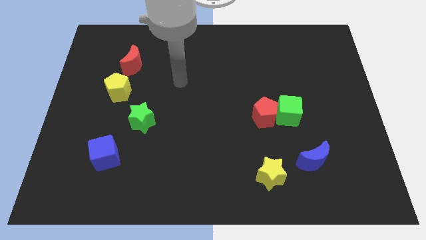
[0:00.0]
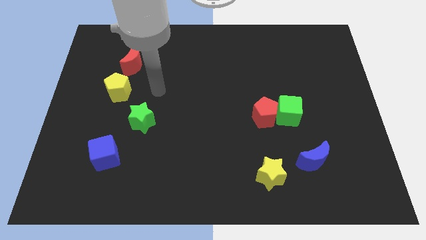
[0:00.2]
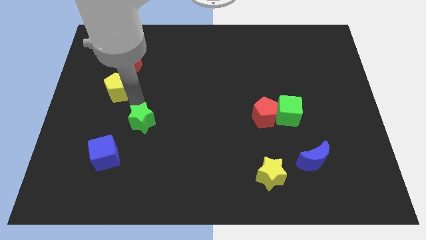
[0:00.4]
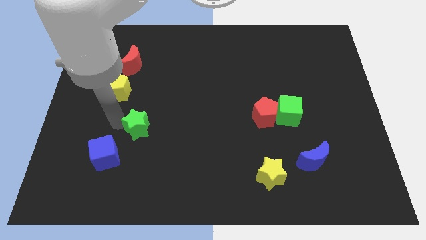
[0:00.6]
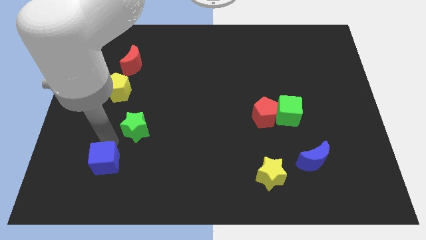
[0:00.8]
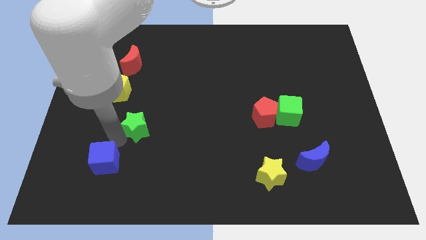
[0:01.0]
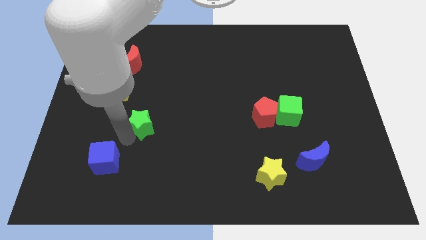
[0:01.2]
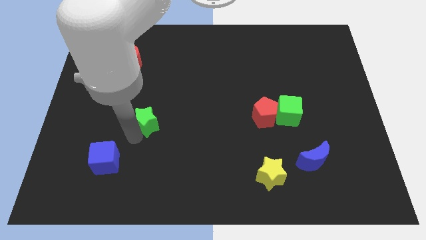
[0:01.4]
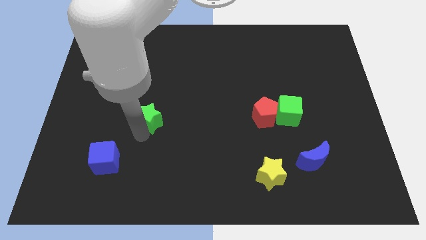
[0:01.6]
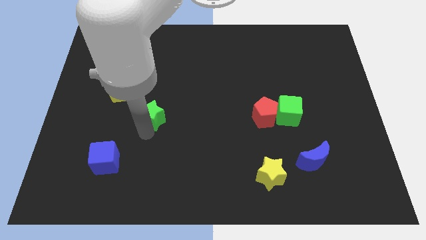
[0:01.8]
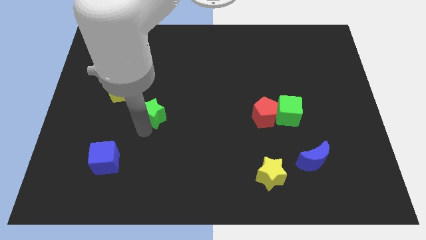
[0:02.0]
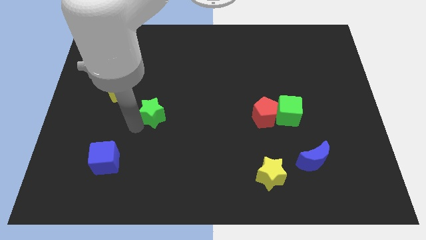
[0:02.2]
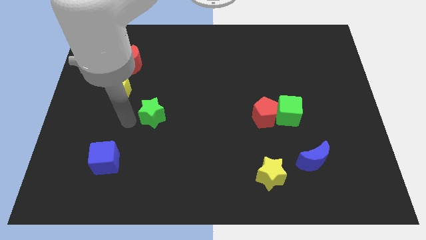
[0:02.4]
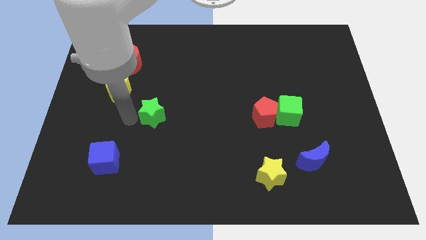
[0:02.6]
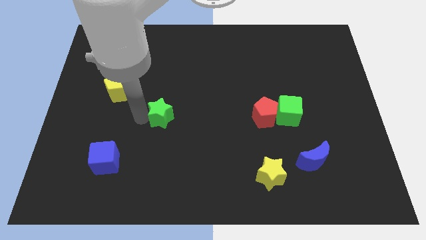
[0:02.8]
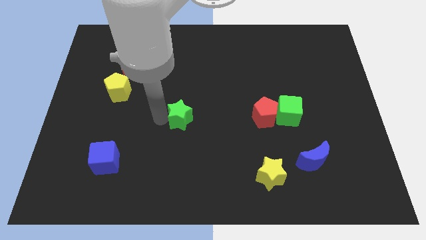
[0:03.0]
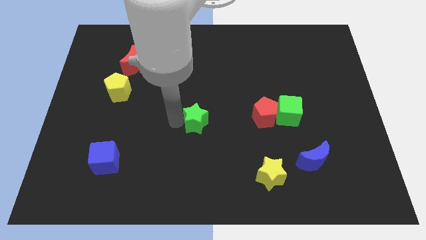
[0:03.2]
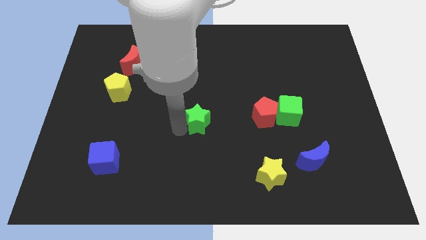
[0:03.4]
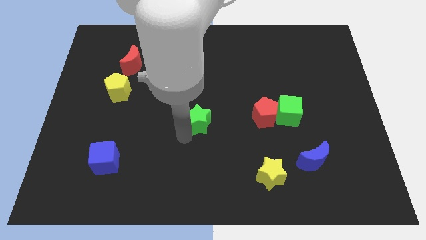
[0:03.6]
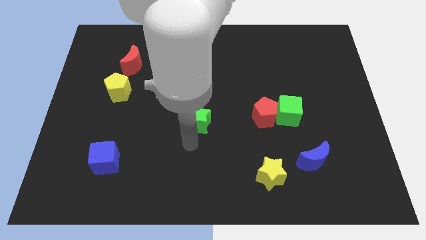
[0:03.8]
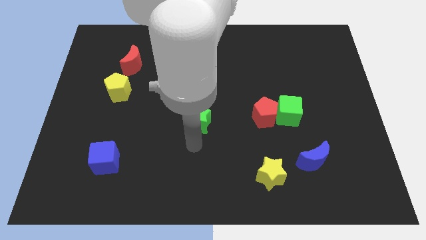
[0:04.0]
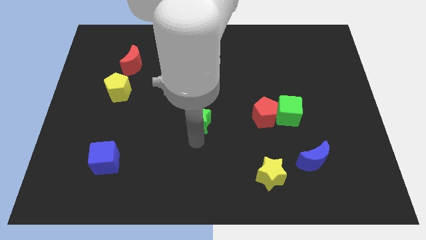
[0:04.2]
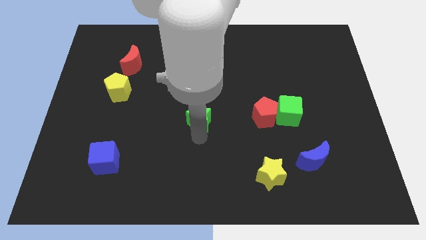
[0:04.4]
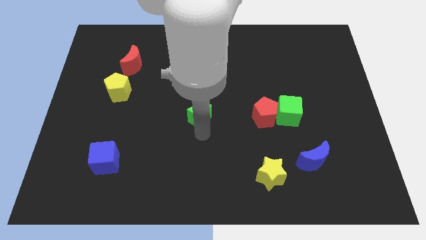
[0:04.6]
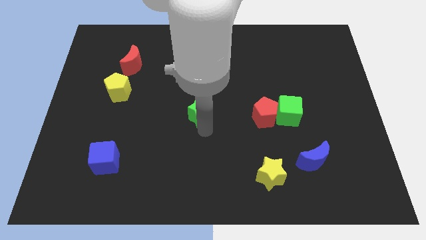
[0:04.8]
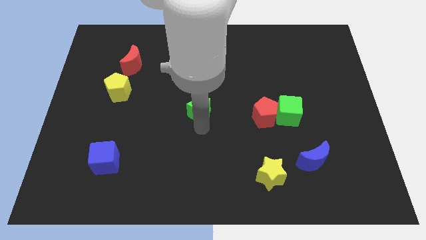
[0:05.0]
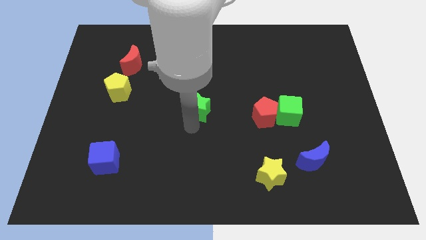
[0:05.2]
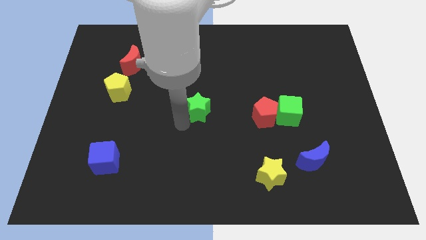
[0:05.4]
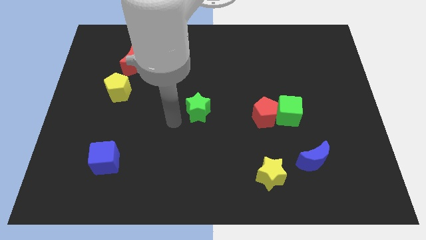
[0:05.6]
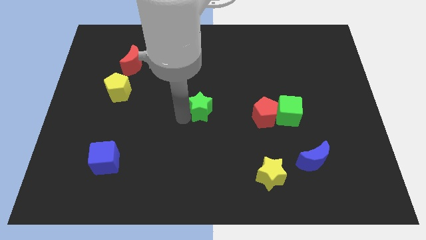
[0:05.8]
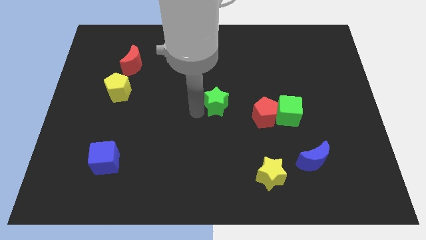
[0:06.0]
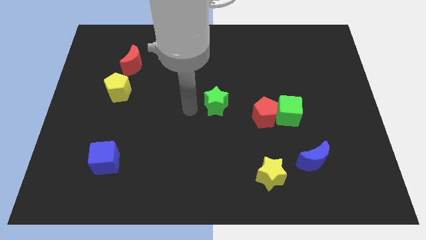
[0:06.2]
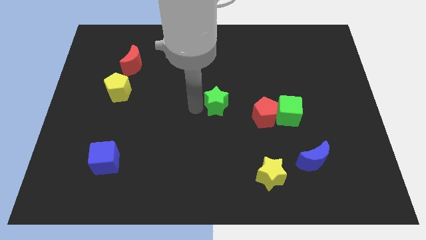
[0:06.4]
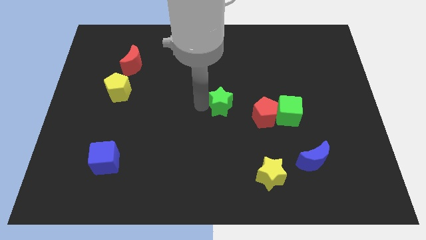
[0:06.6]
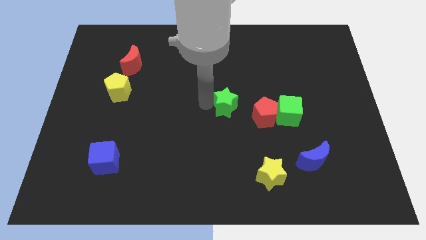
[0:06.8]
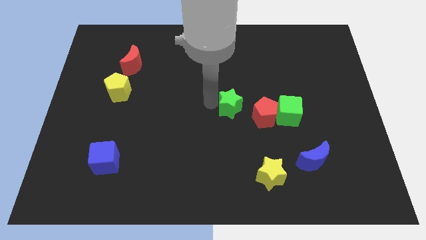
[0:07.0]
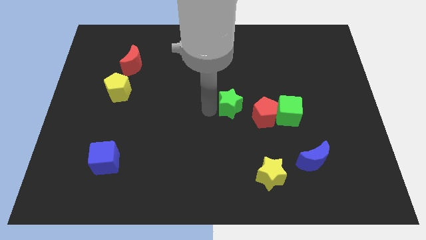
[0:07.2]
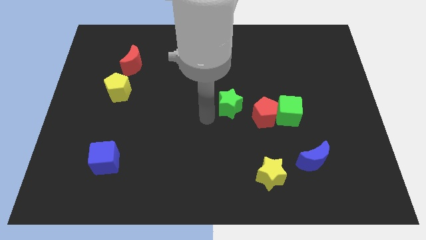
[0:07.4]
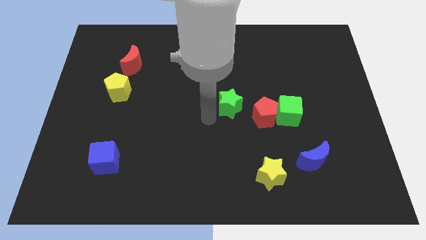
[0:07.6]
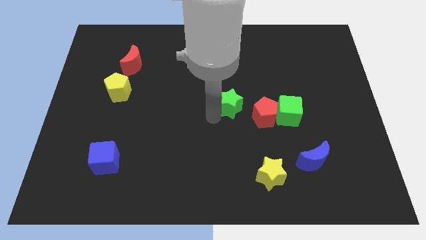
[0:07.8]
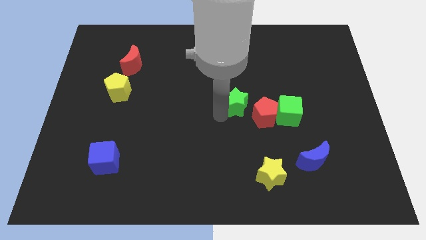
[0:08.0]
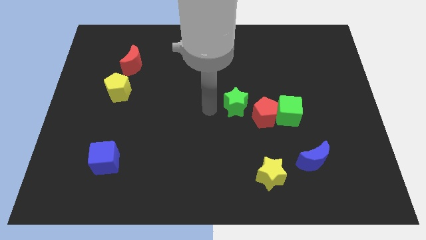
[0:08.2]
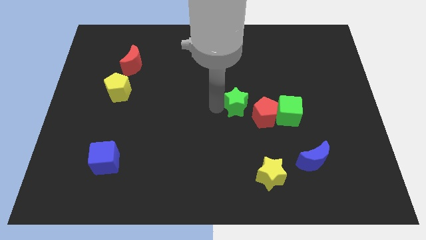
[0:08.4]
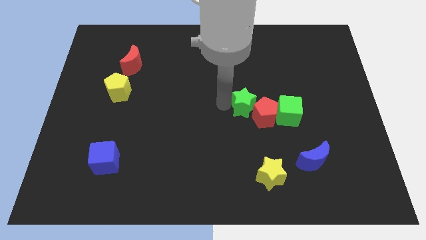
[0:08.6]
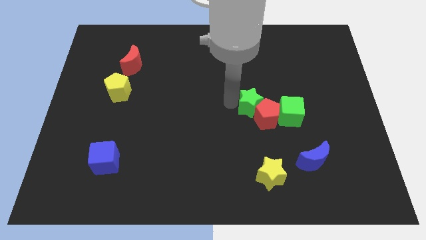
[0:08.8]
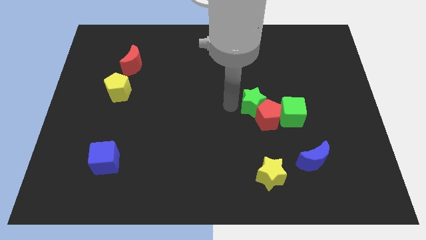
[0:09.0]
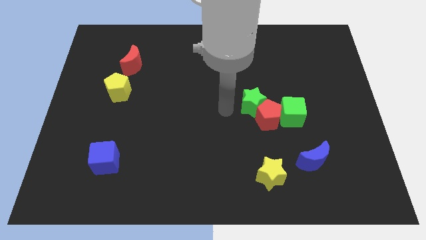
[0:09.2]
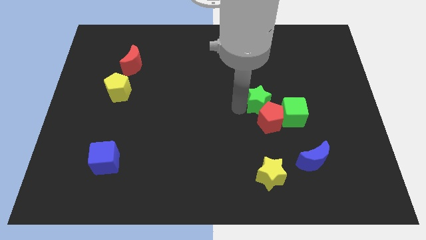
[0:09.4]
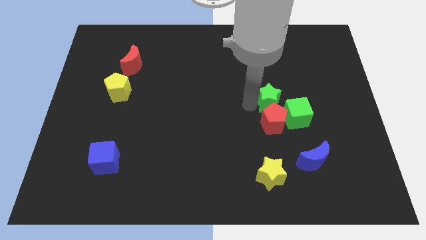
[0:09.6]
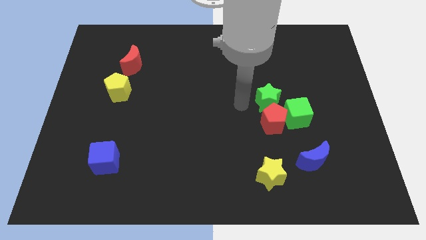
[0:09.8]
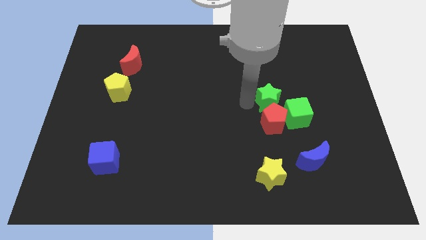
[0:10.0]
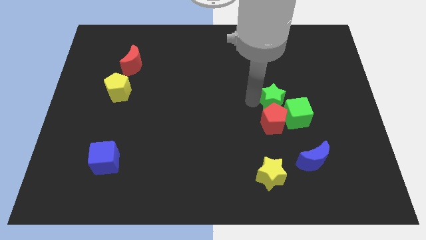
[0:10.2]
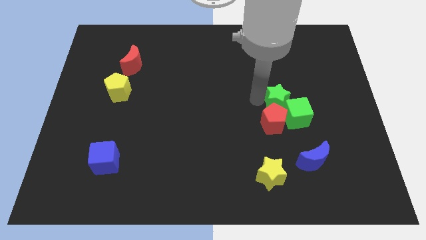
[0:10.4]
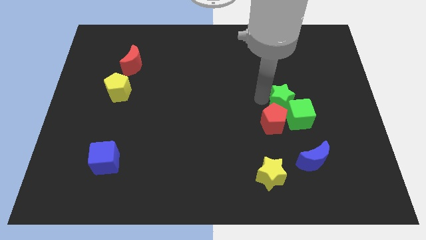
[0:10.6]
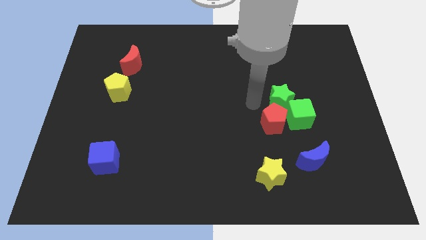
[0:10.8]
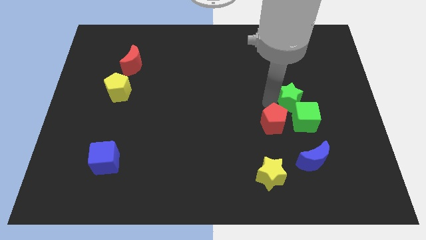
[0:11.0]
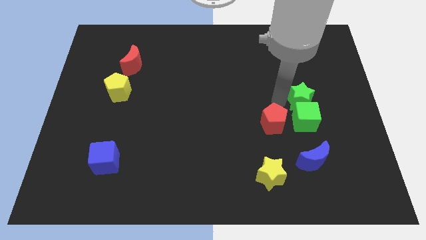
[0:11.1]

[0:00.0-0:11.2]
slide the green star to the top right of the green cube

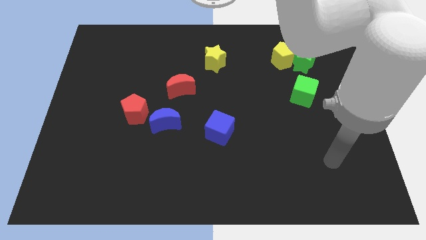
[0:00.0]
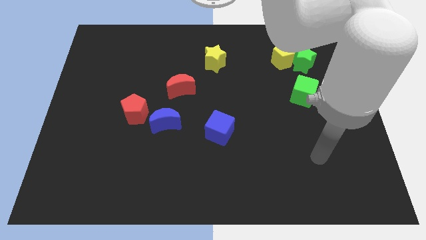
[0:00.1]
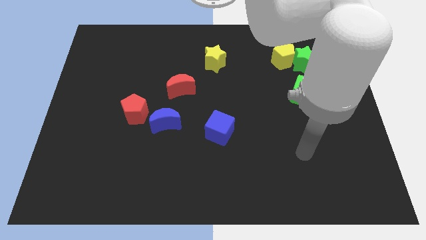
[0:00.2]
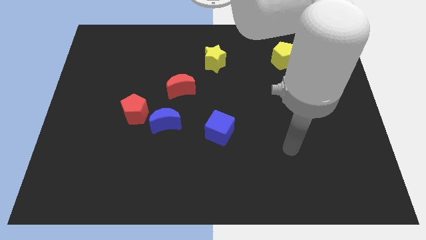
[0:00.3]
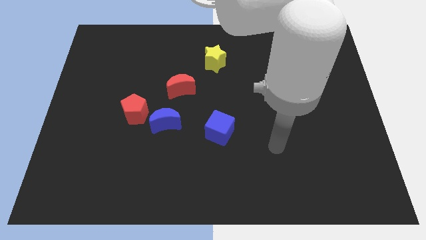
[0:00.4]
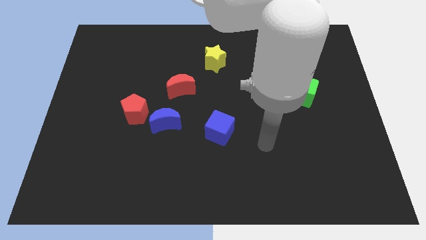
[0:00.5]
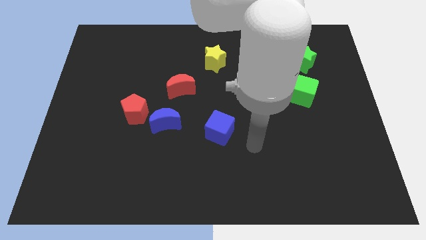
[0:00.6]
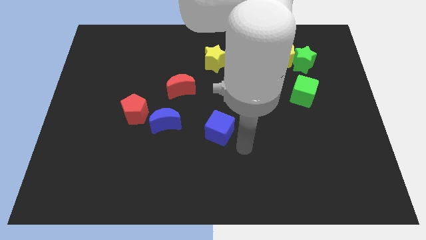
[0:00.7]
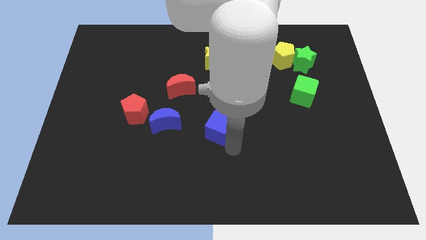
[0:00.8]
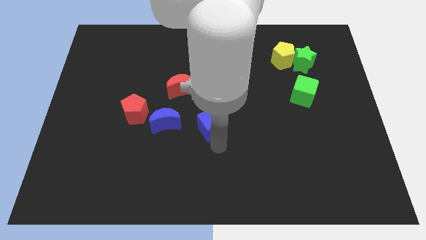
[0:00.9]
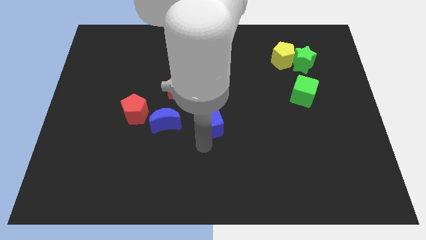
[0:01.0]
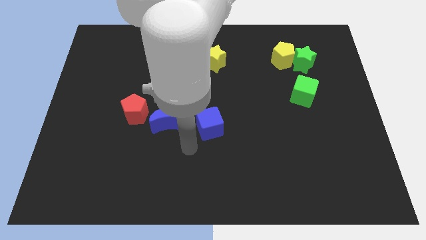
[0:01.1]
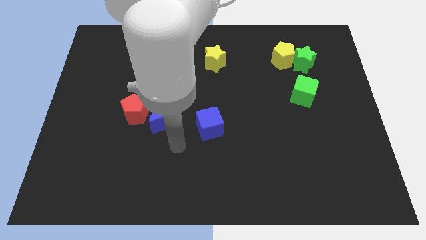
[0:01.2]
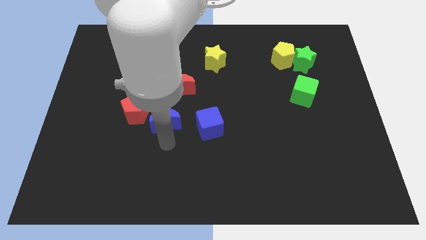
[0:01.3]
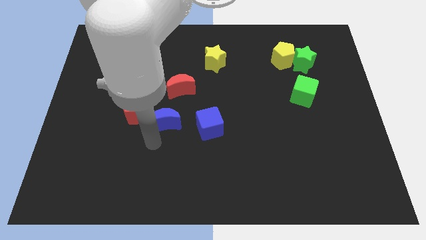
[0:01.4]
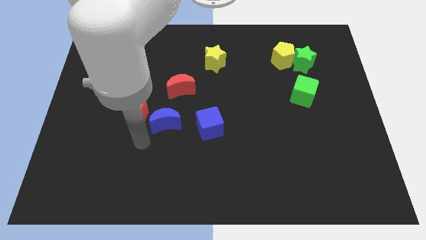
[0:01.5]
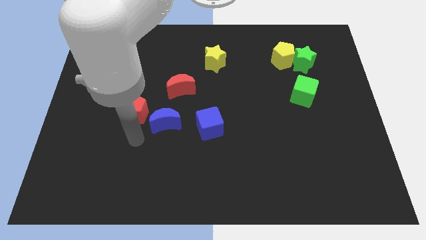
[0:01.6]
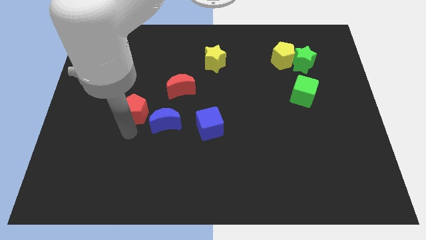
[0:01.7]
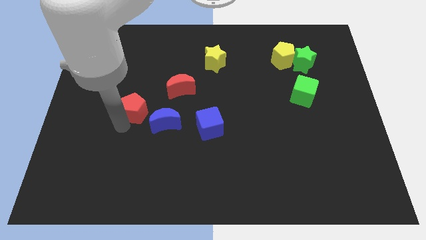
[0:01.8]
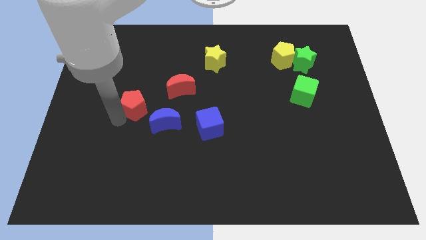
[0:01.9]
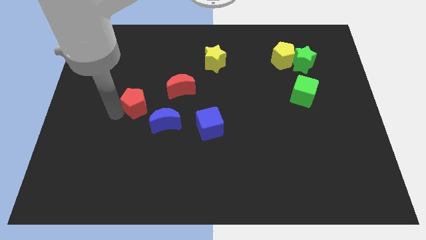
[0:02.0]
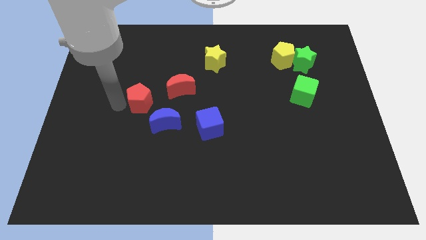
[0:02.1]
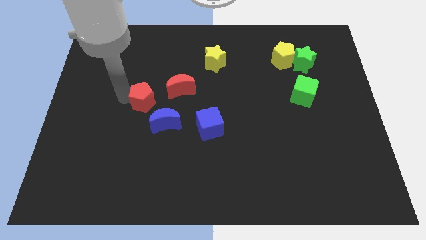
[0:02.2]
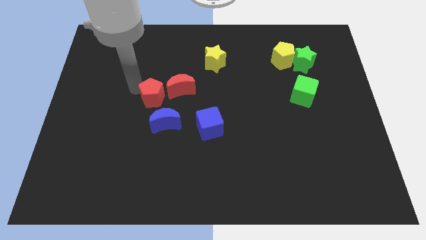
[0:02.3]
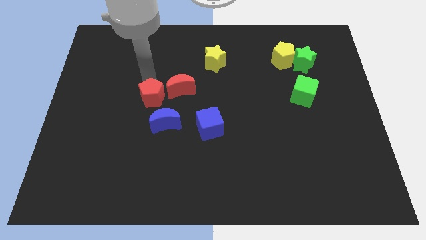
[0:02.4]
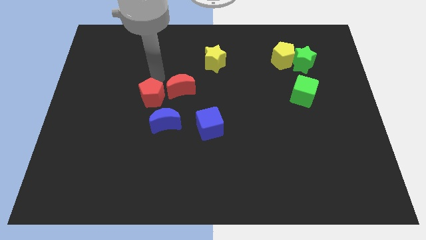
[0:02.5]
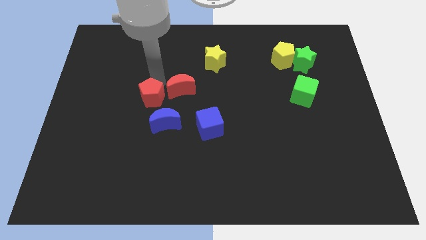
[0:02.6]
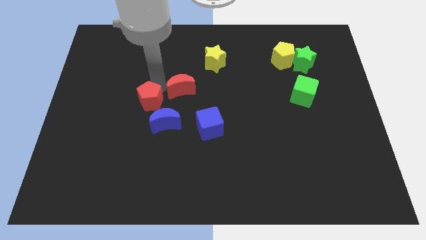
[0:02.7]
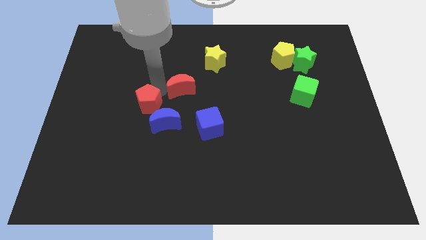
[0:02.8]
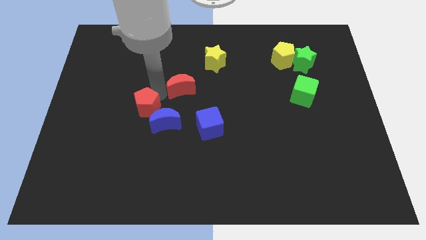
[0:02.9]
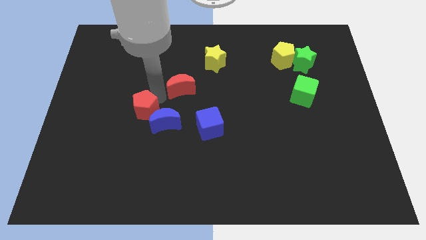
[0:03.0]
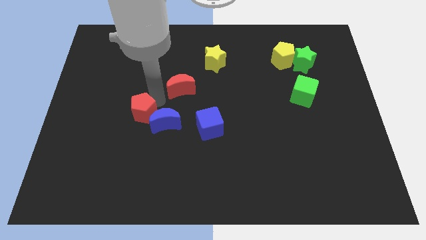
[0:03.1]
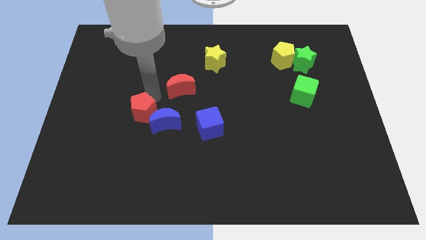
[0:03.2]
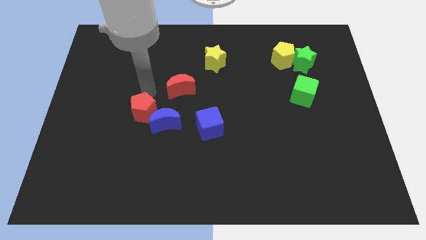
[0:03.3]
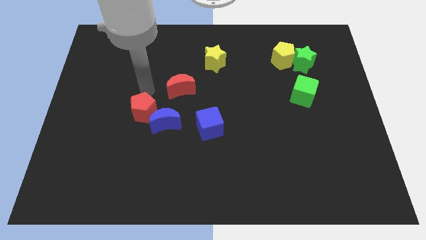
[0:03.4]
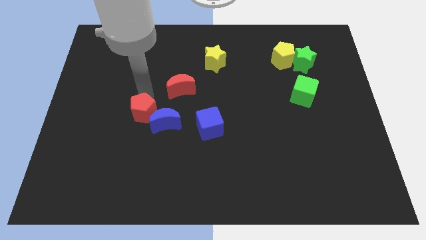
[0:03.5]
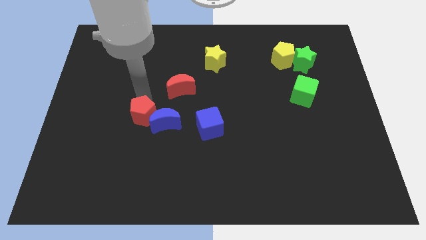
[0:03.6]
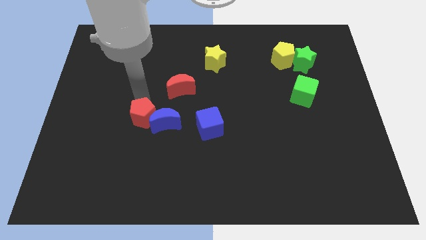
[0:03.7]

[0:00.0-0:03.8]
push the red pentagon to the bottom left side of the blue moon
